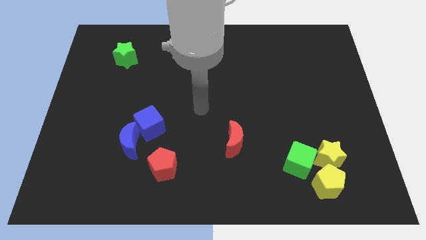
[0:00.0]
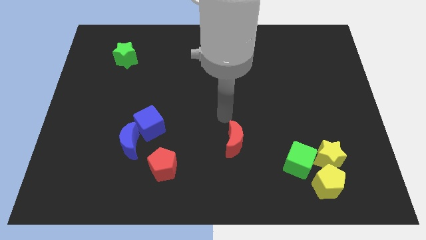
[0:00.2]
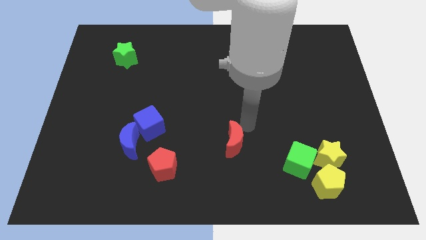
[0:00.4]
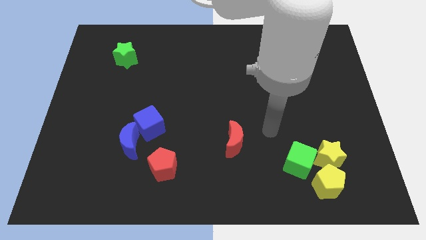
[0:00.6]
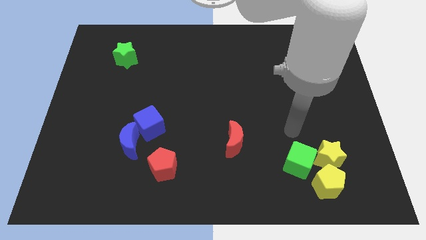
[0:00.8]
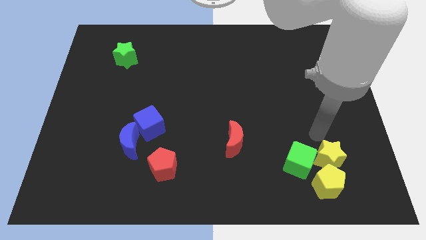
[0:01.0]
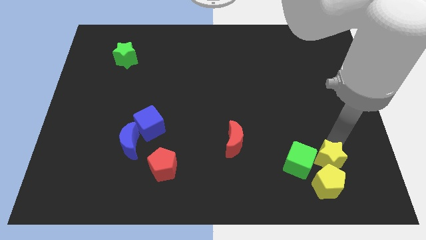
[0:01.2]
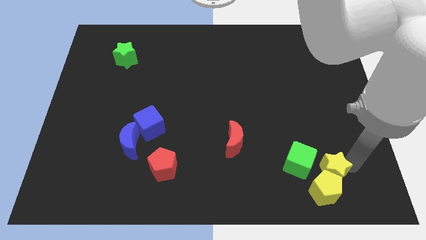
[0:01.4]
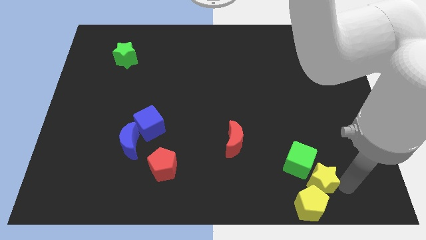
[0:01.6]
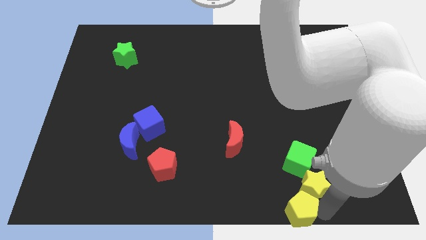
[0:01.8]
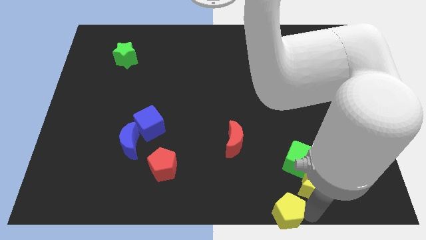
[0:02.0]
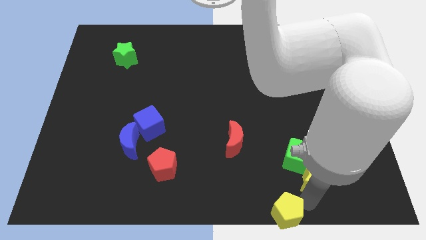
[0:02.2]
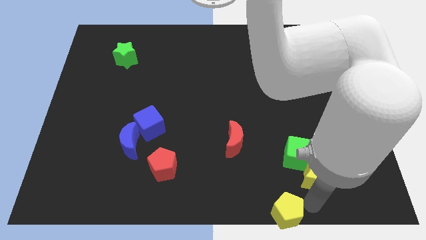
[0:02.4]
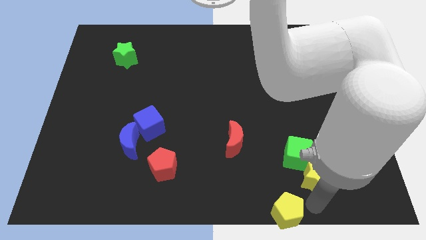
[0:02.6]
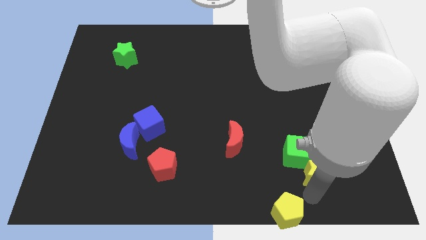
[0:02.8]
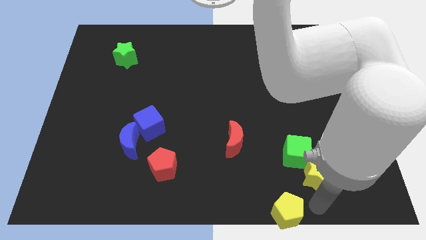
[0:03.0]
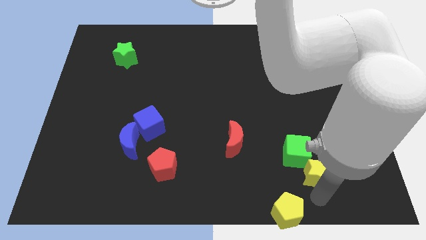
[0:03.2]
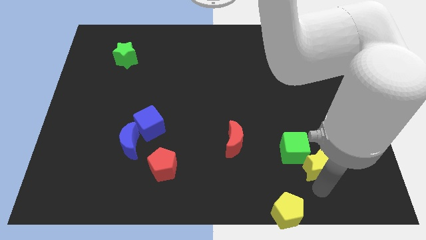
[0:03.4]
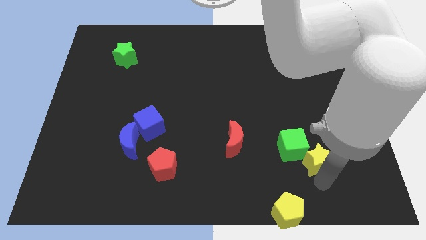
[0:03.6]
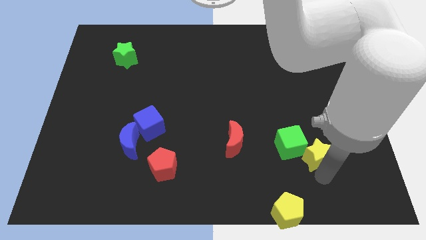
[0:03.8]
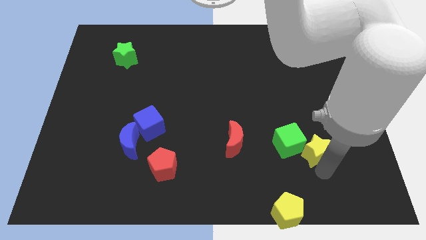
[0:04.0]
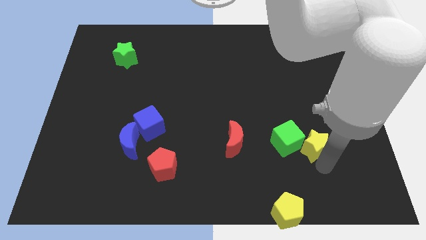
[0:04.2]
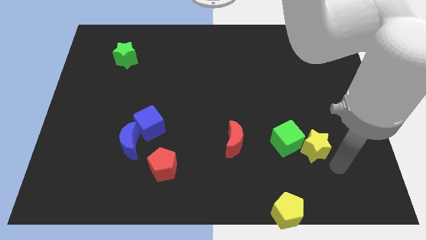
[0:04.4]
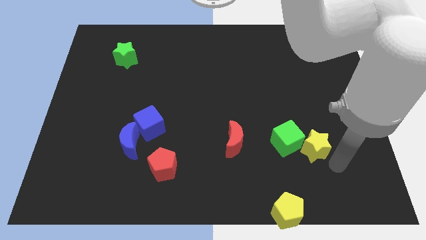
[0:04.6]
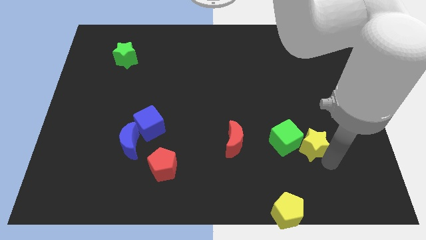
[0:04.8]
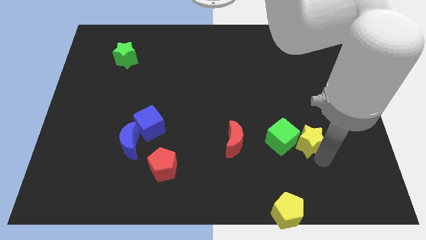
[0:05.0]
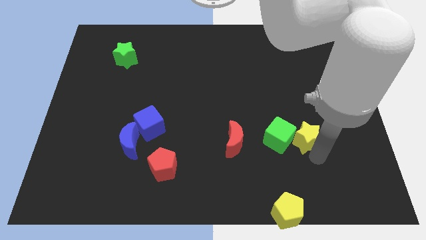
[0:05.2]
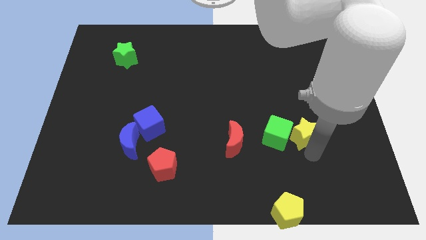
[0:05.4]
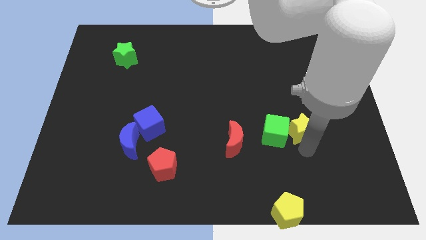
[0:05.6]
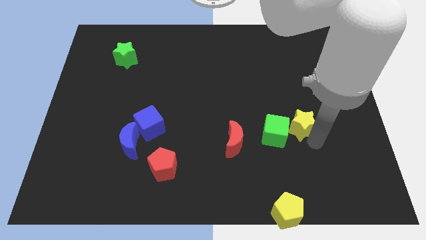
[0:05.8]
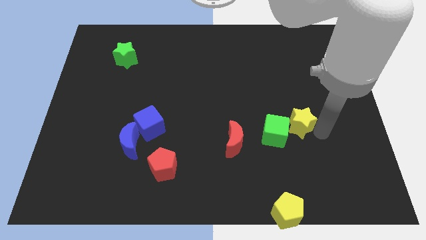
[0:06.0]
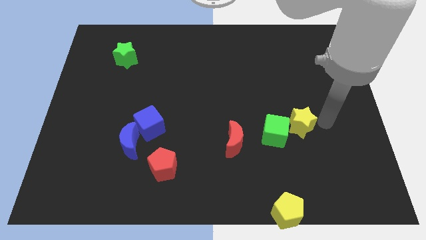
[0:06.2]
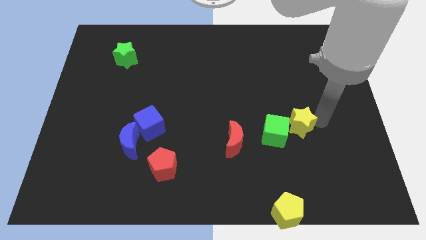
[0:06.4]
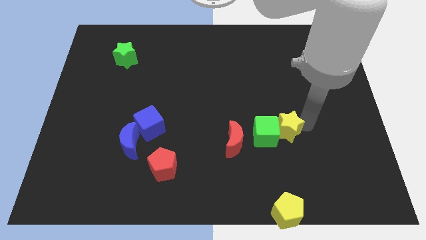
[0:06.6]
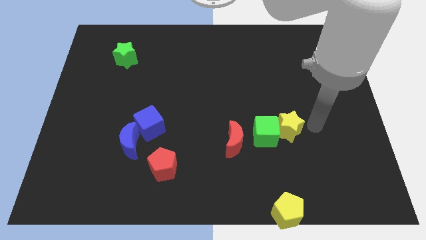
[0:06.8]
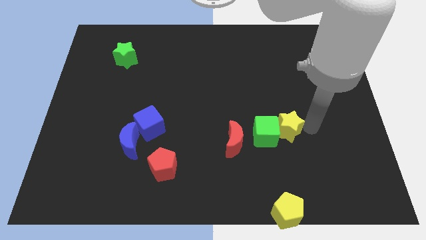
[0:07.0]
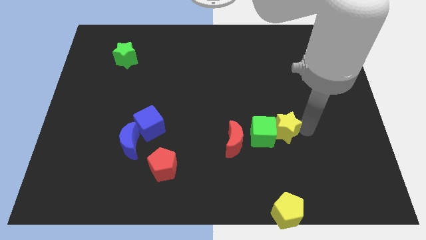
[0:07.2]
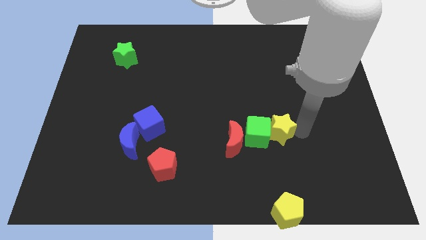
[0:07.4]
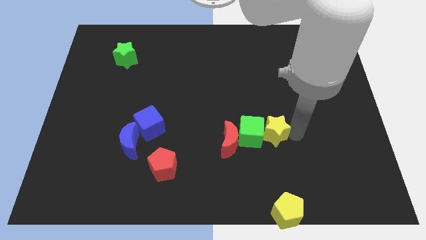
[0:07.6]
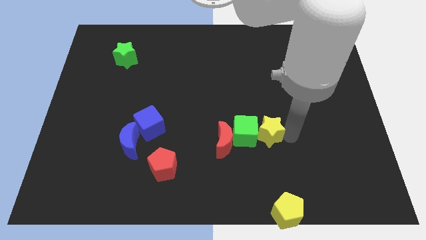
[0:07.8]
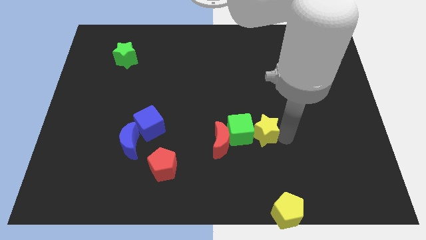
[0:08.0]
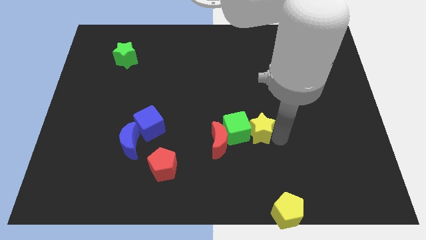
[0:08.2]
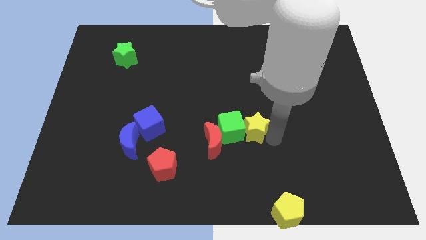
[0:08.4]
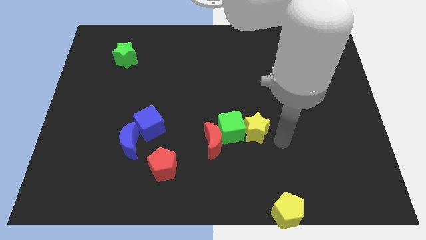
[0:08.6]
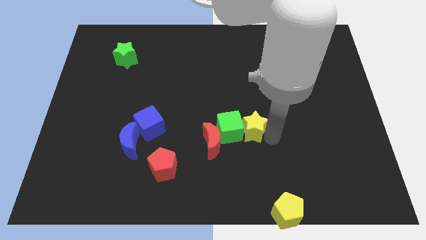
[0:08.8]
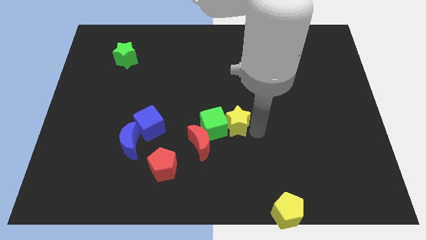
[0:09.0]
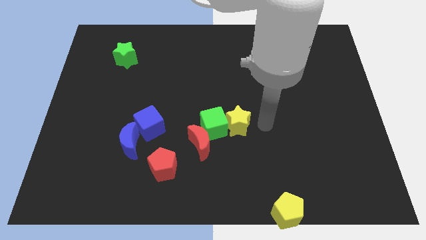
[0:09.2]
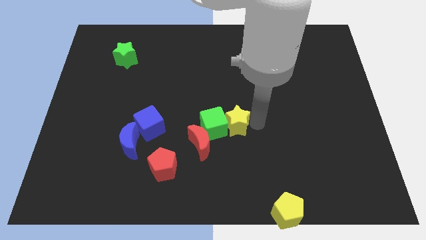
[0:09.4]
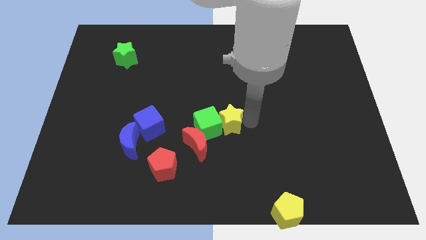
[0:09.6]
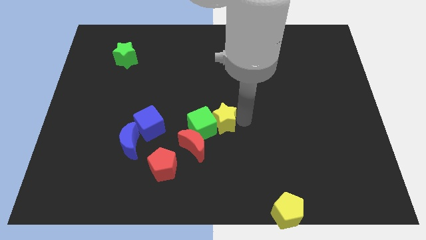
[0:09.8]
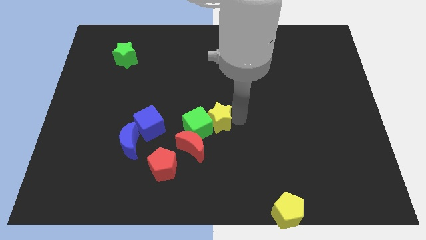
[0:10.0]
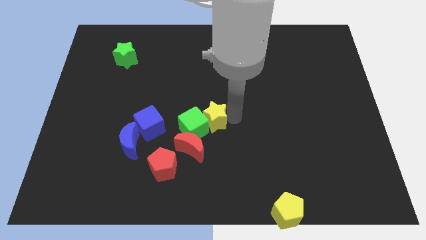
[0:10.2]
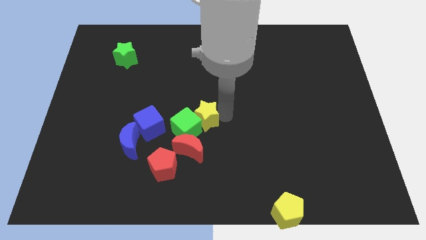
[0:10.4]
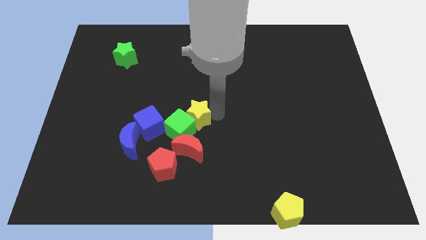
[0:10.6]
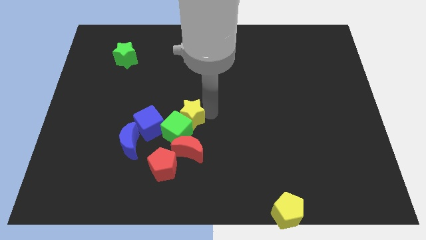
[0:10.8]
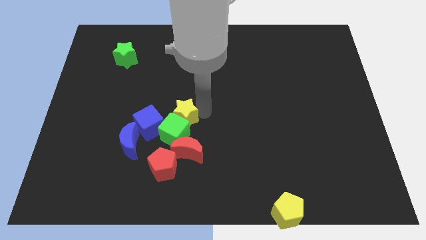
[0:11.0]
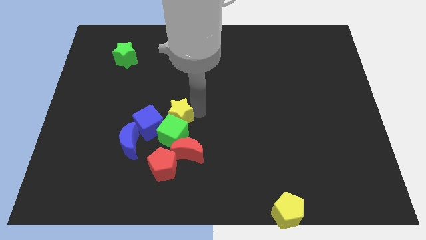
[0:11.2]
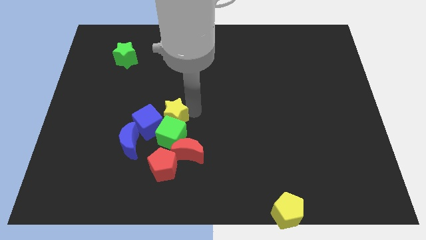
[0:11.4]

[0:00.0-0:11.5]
push the yellow star next to the blue cube

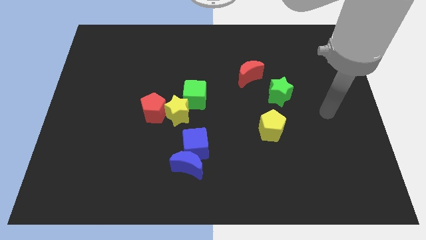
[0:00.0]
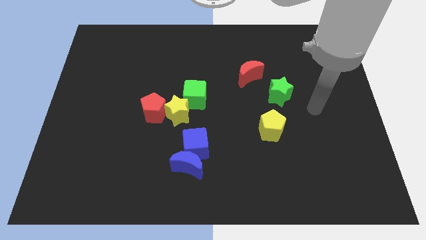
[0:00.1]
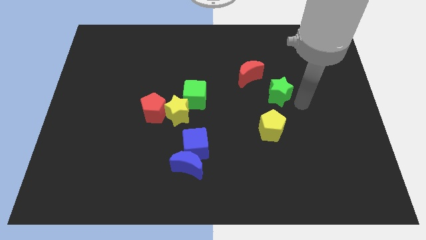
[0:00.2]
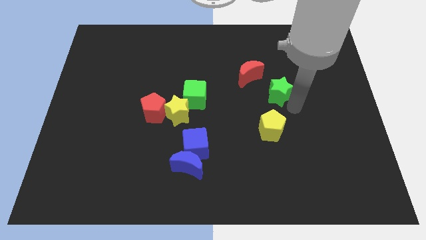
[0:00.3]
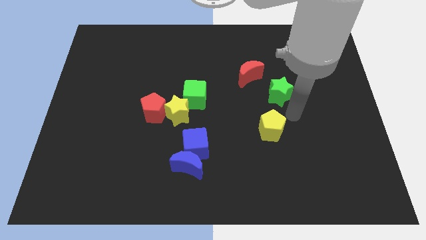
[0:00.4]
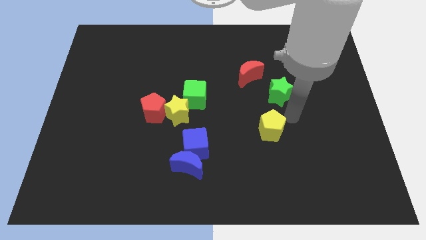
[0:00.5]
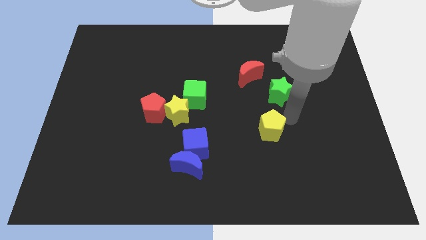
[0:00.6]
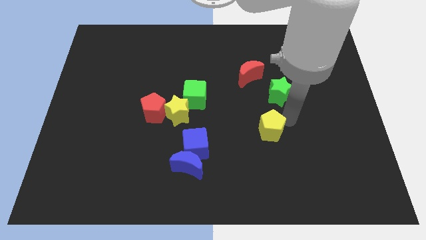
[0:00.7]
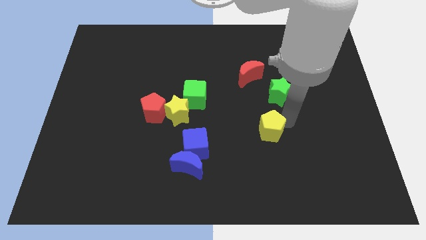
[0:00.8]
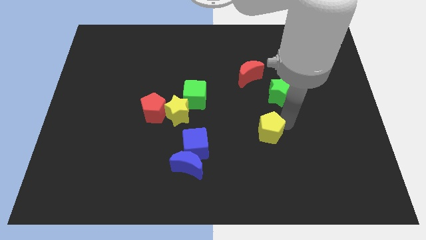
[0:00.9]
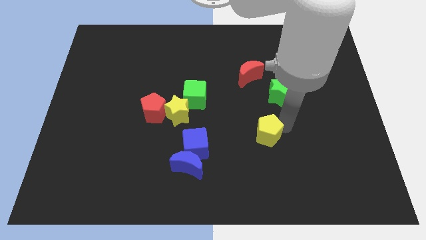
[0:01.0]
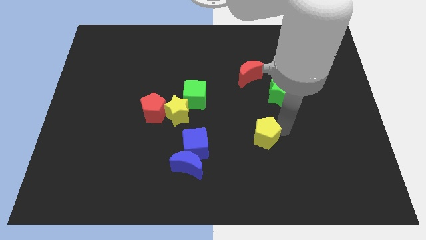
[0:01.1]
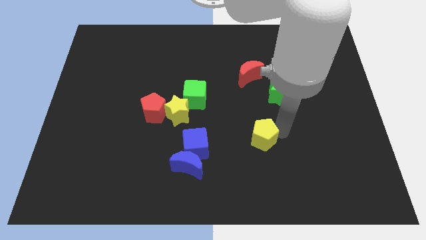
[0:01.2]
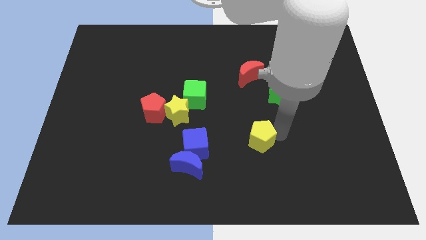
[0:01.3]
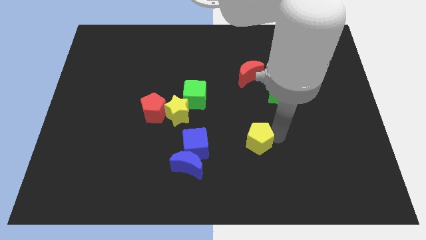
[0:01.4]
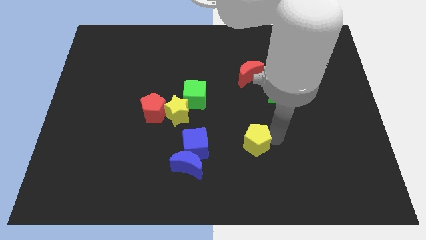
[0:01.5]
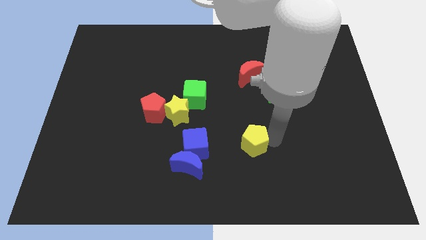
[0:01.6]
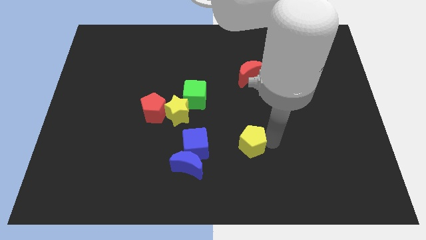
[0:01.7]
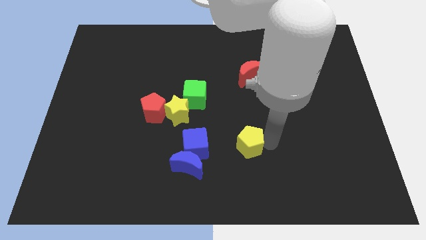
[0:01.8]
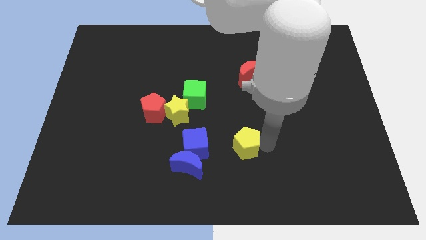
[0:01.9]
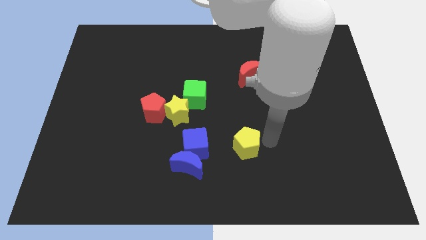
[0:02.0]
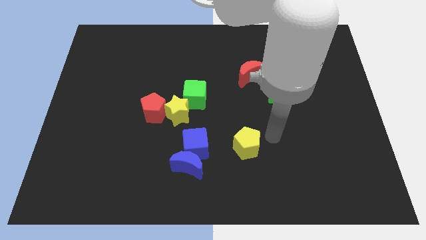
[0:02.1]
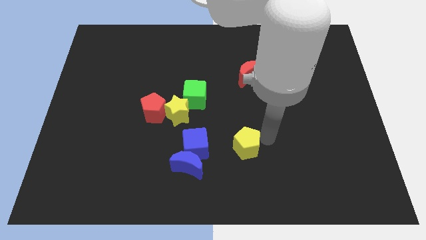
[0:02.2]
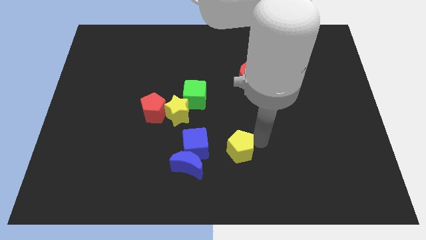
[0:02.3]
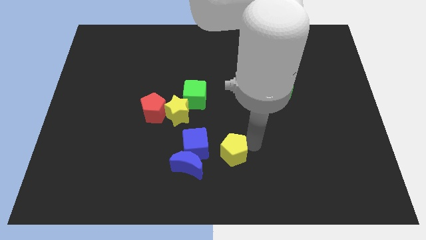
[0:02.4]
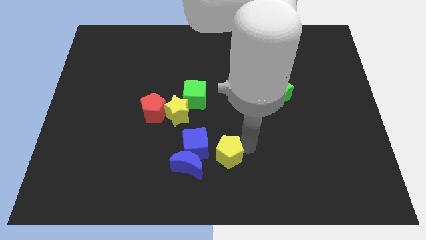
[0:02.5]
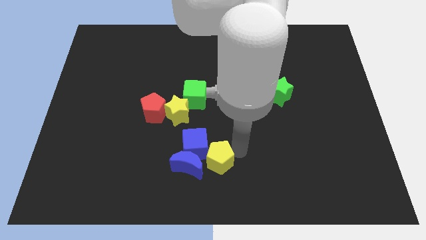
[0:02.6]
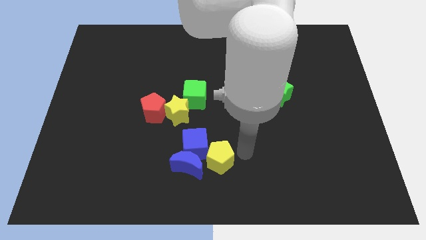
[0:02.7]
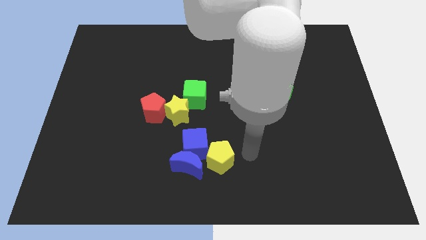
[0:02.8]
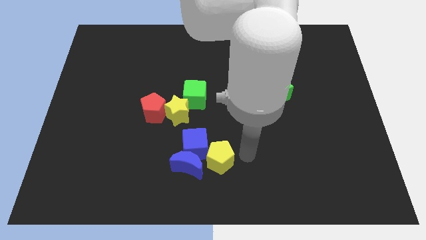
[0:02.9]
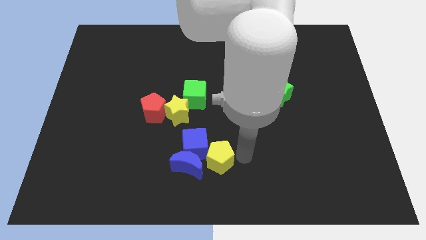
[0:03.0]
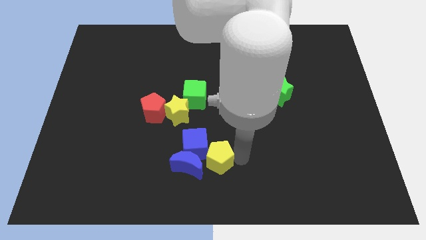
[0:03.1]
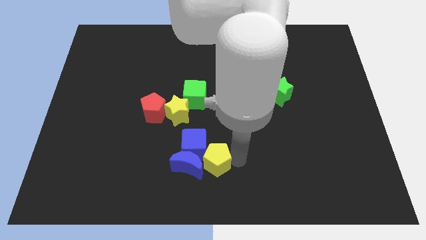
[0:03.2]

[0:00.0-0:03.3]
move the yellow pentagon towards the blue moon
